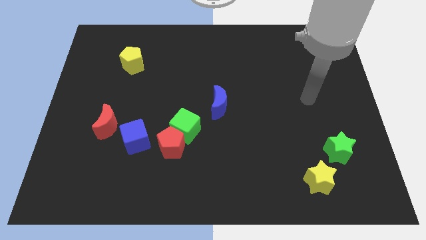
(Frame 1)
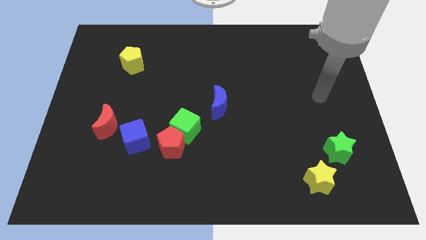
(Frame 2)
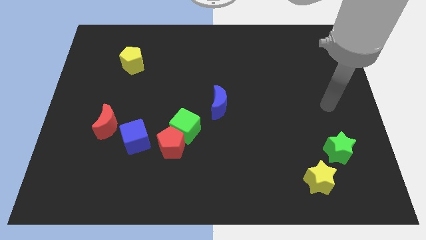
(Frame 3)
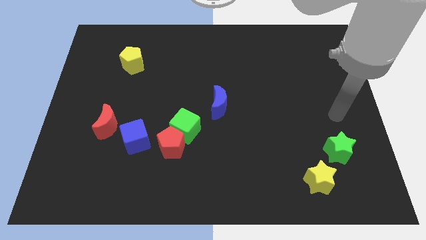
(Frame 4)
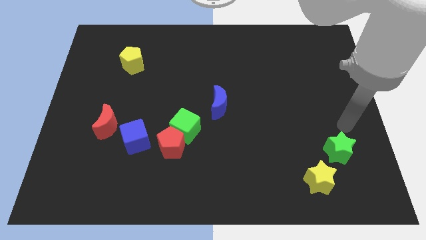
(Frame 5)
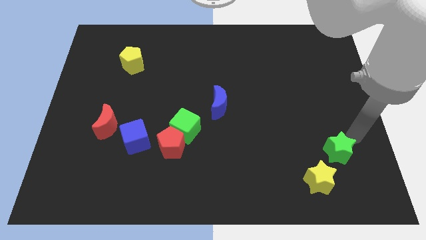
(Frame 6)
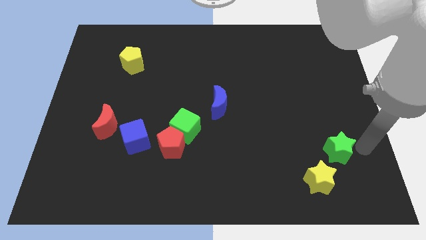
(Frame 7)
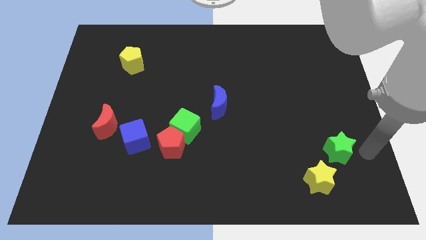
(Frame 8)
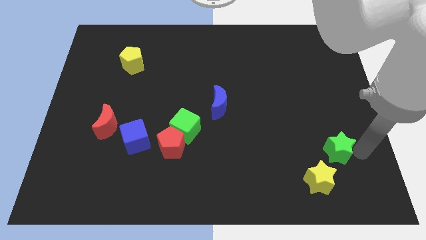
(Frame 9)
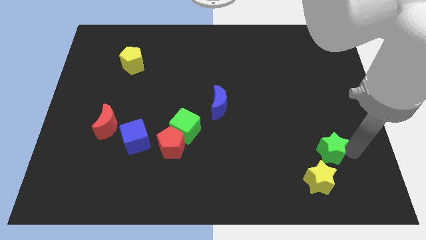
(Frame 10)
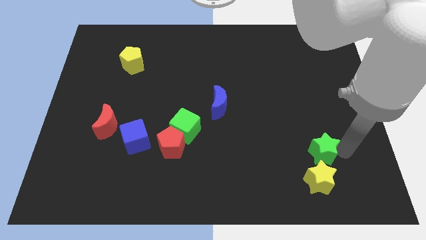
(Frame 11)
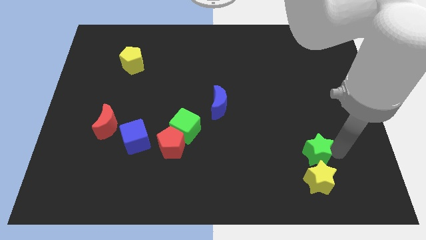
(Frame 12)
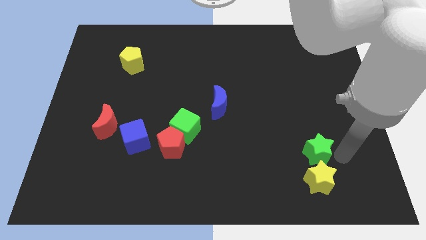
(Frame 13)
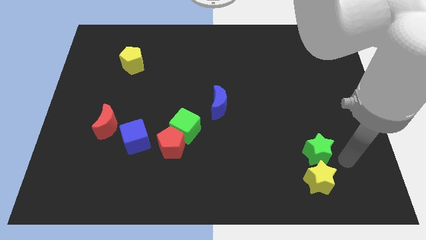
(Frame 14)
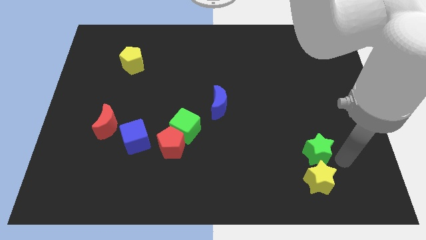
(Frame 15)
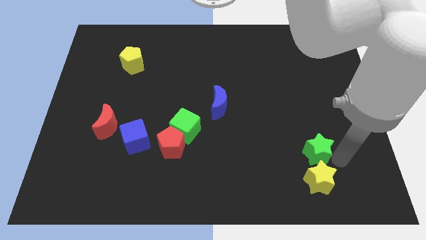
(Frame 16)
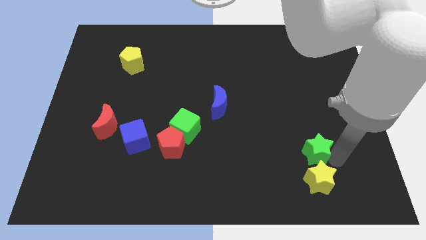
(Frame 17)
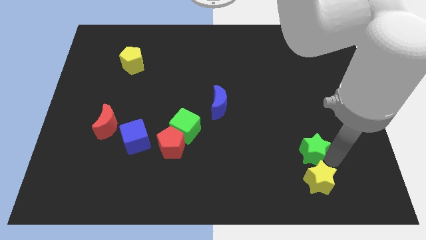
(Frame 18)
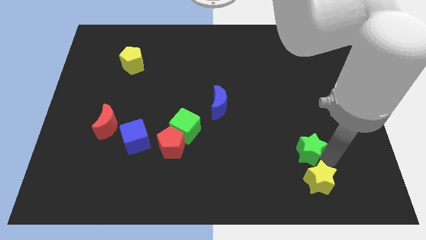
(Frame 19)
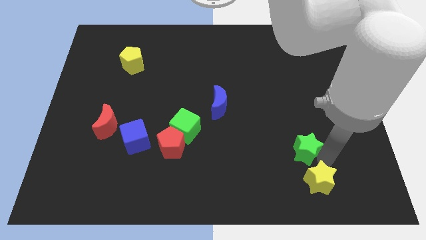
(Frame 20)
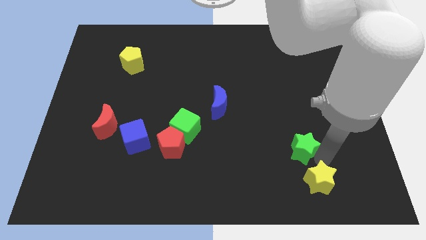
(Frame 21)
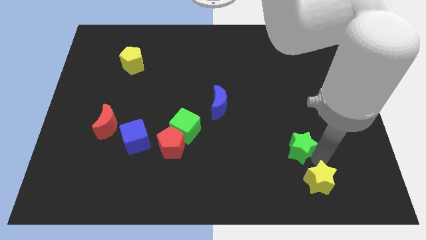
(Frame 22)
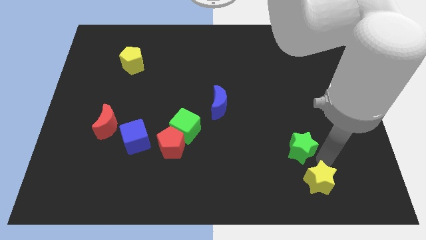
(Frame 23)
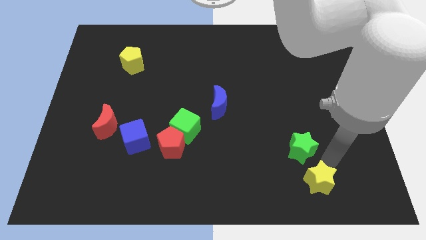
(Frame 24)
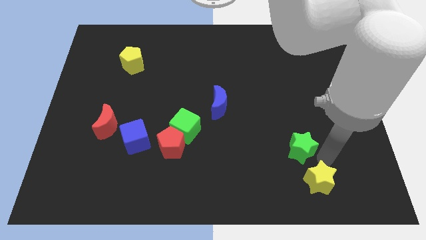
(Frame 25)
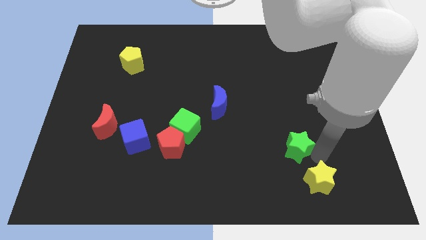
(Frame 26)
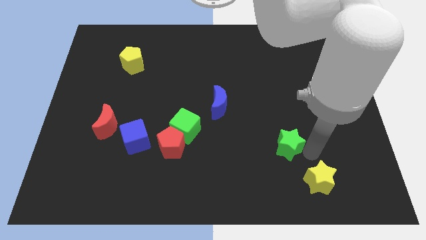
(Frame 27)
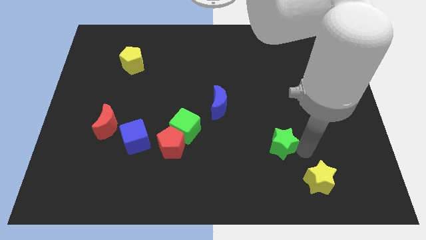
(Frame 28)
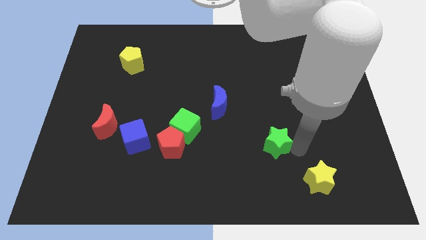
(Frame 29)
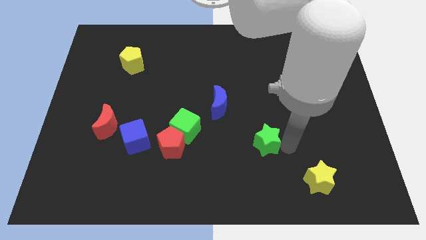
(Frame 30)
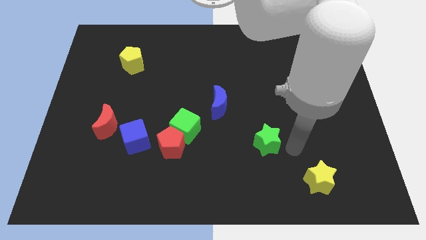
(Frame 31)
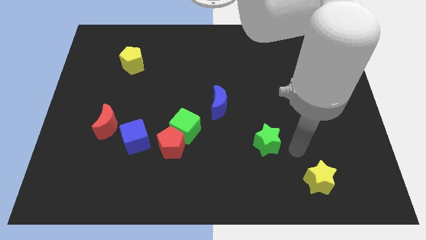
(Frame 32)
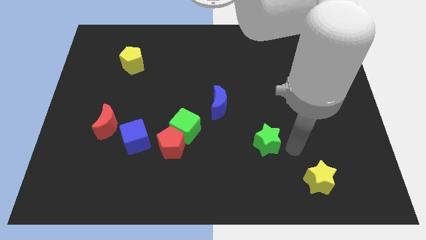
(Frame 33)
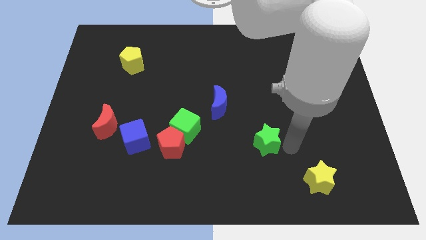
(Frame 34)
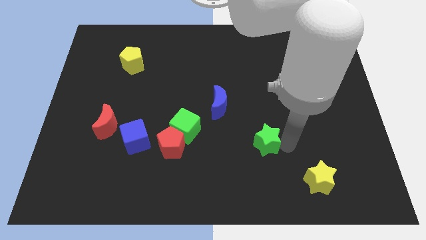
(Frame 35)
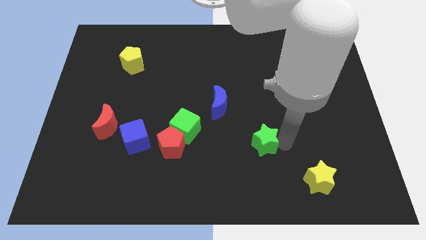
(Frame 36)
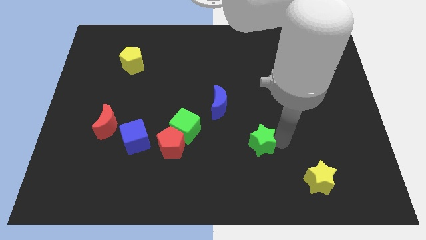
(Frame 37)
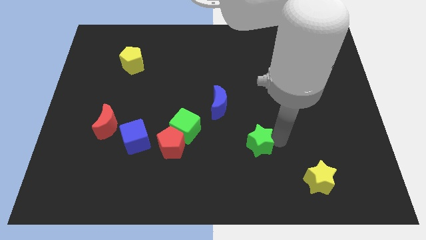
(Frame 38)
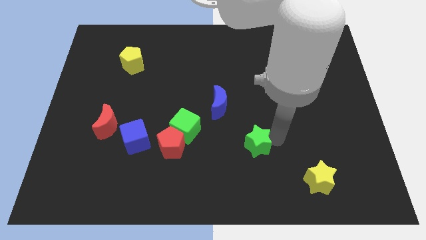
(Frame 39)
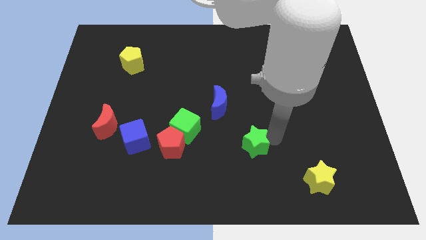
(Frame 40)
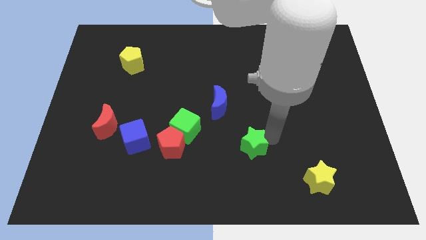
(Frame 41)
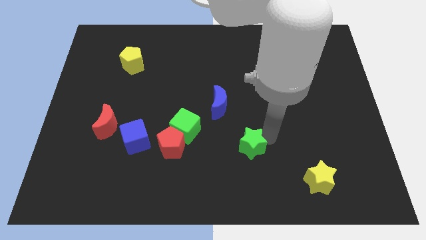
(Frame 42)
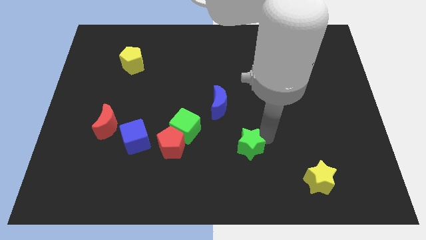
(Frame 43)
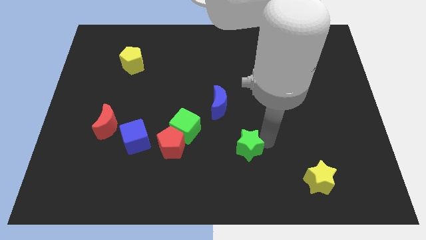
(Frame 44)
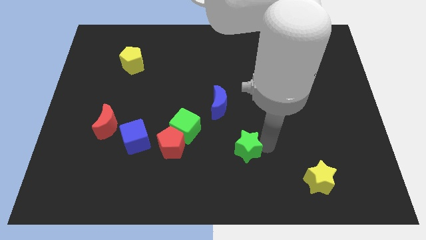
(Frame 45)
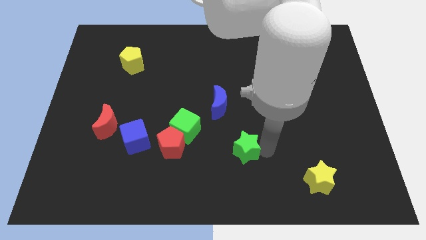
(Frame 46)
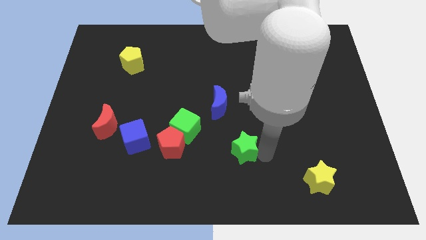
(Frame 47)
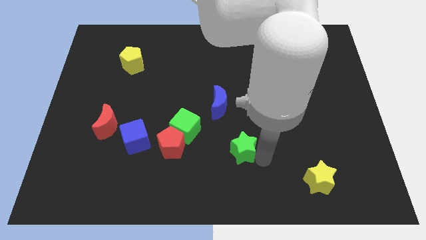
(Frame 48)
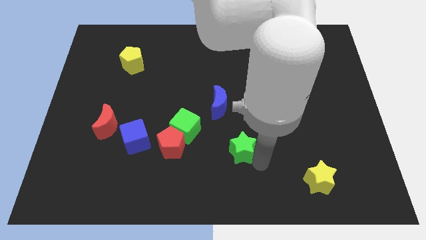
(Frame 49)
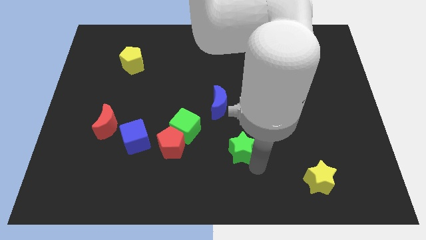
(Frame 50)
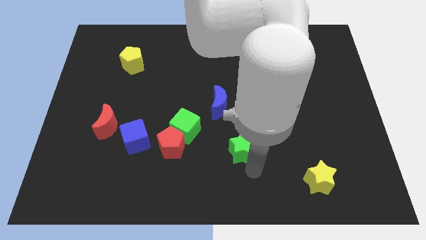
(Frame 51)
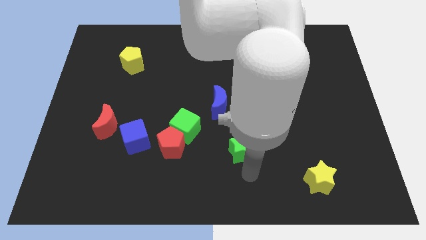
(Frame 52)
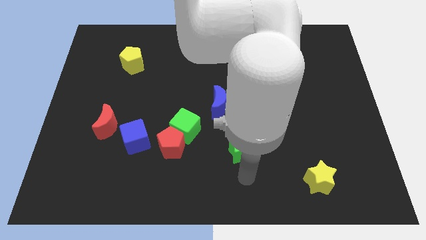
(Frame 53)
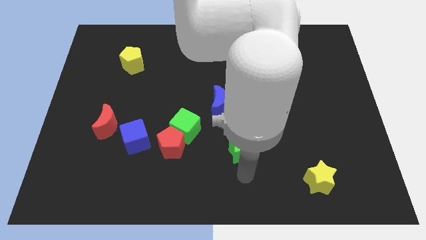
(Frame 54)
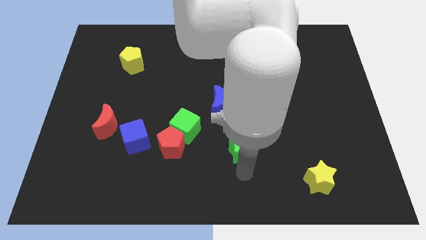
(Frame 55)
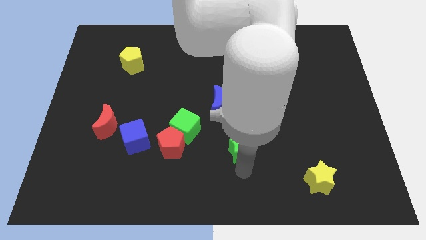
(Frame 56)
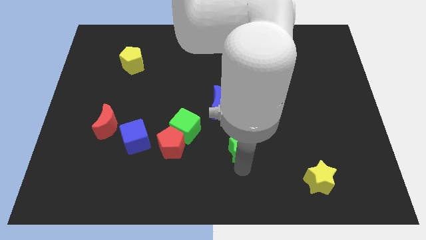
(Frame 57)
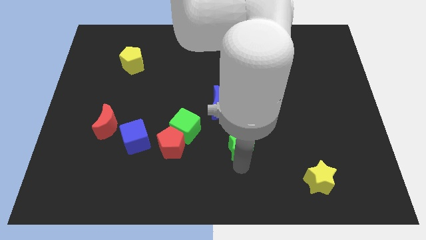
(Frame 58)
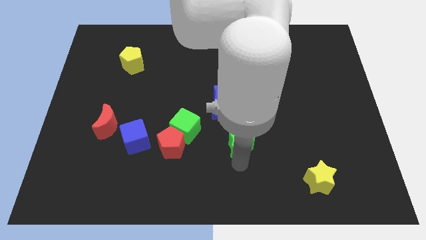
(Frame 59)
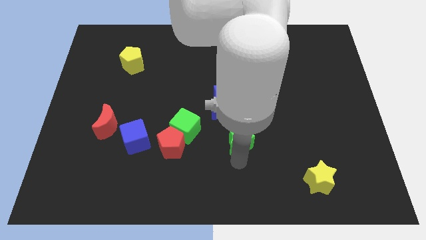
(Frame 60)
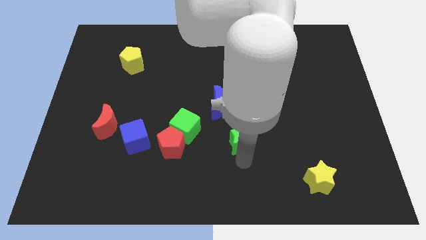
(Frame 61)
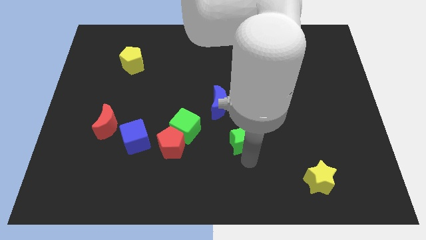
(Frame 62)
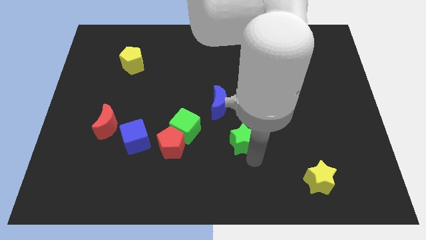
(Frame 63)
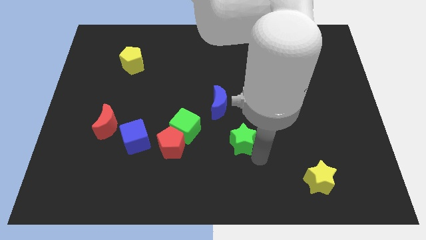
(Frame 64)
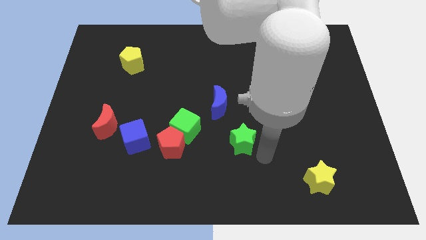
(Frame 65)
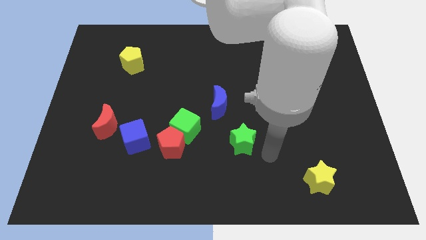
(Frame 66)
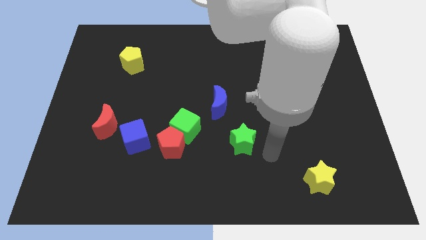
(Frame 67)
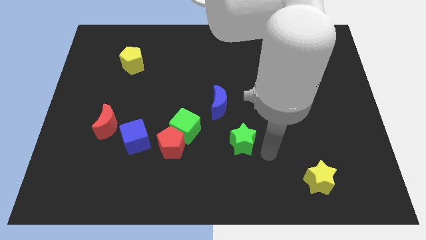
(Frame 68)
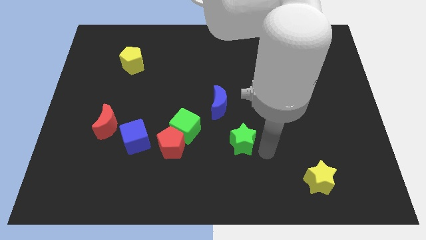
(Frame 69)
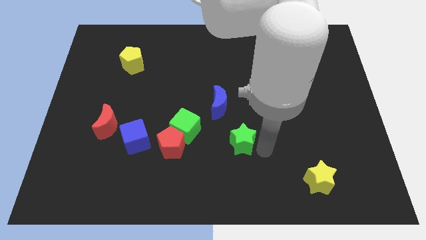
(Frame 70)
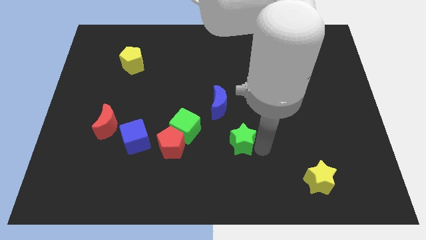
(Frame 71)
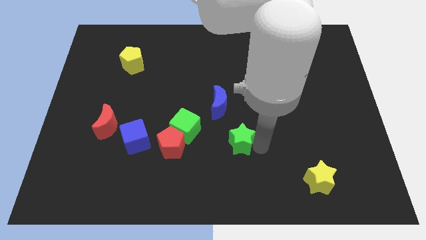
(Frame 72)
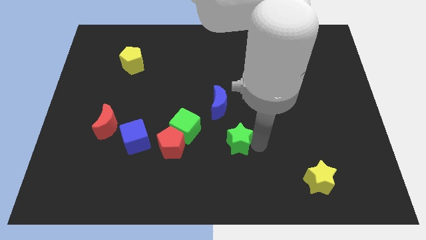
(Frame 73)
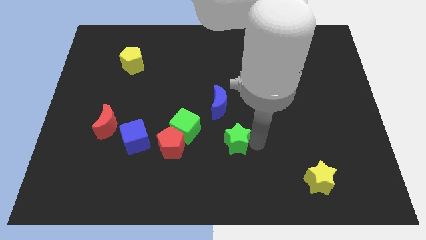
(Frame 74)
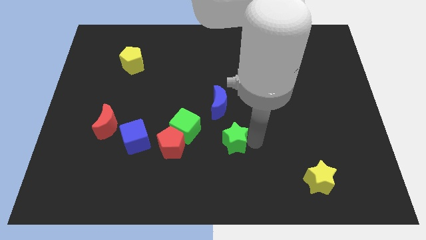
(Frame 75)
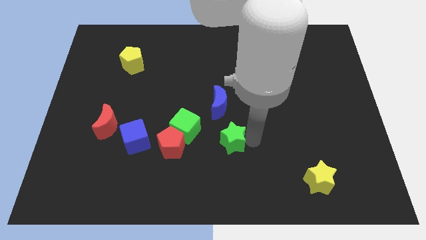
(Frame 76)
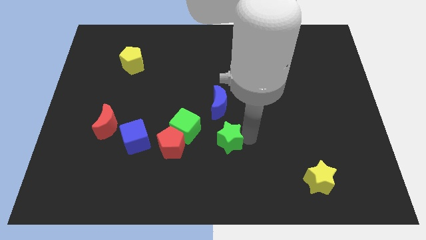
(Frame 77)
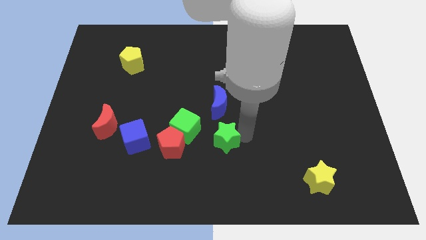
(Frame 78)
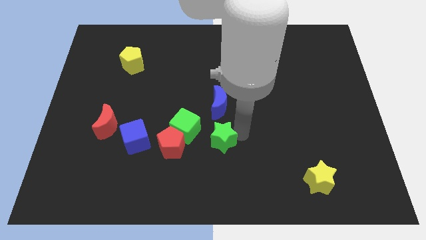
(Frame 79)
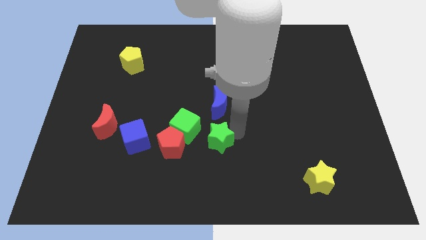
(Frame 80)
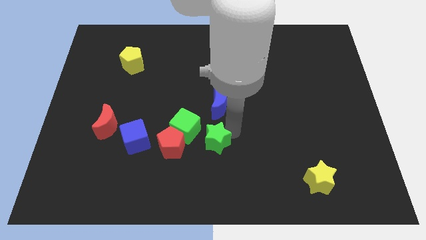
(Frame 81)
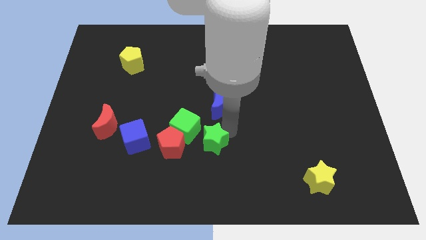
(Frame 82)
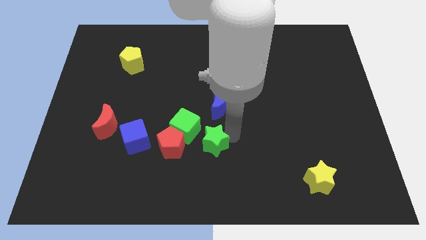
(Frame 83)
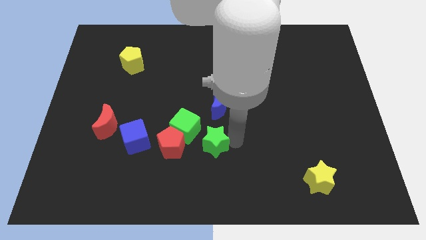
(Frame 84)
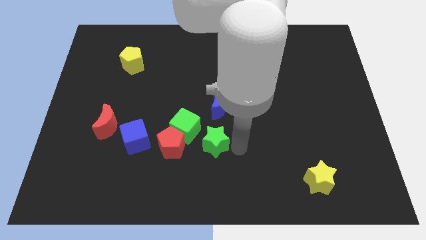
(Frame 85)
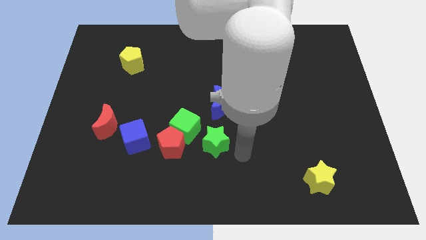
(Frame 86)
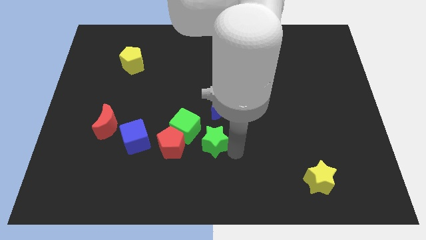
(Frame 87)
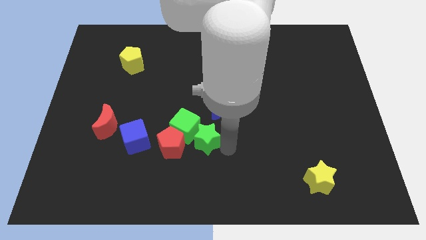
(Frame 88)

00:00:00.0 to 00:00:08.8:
push the green star towards the green cube
